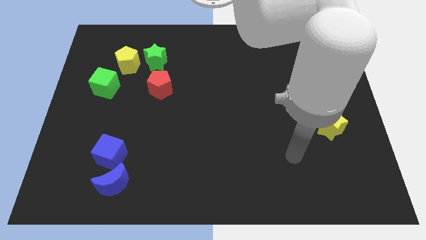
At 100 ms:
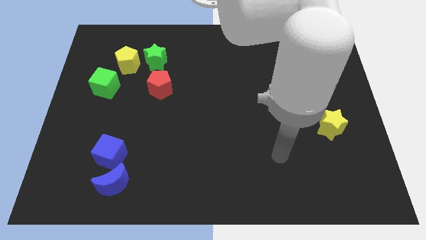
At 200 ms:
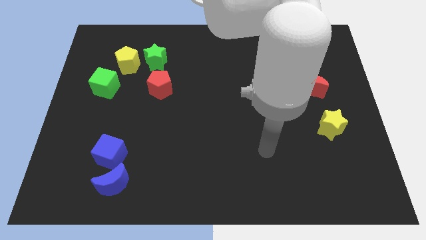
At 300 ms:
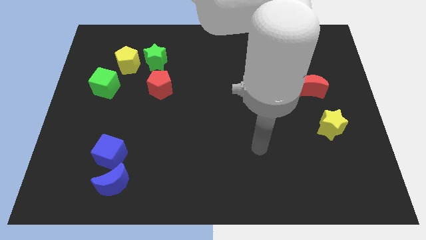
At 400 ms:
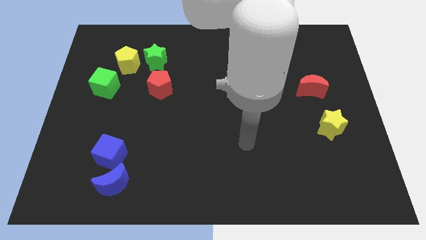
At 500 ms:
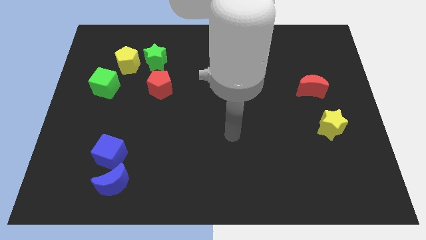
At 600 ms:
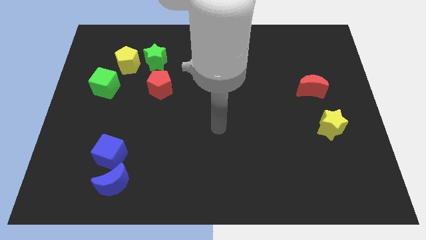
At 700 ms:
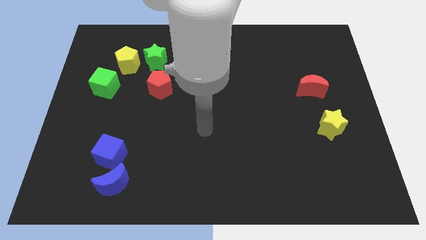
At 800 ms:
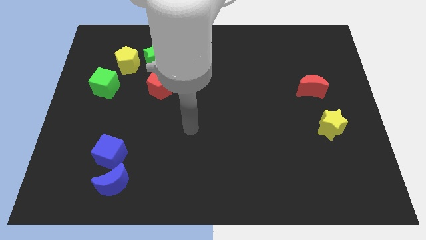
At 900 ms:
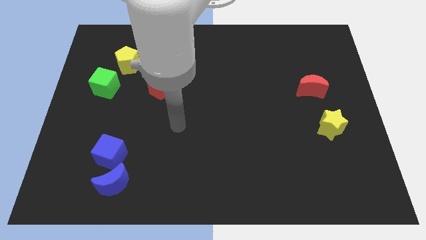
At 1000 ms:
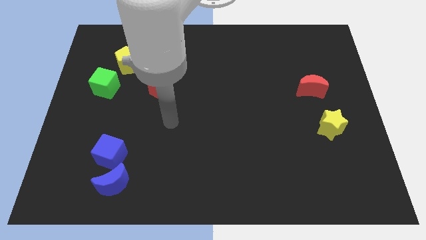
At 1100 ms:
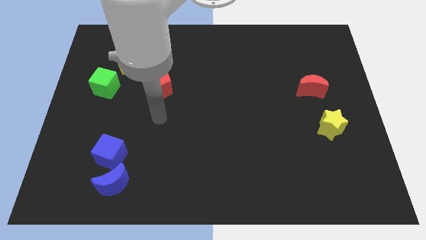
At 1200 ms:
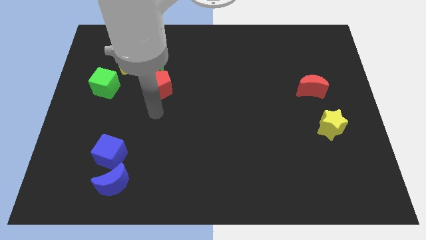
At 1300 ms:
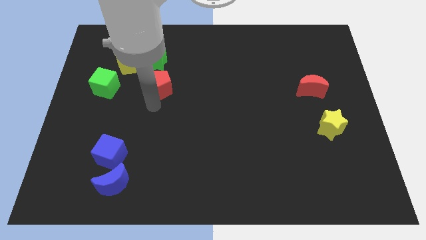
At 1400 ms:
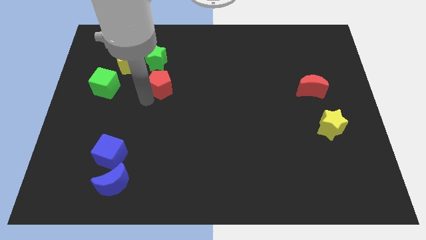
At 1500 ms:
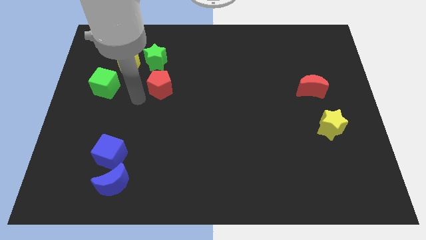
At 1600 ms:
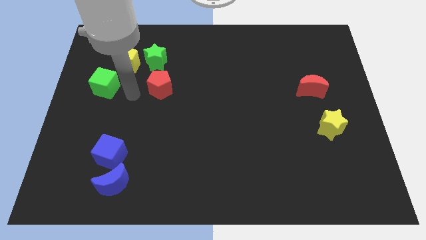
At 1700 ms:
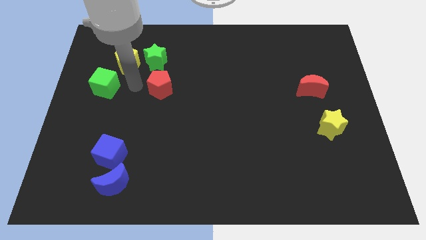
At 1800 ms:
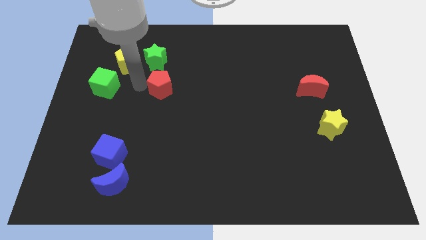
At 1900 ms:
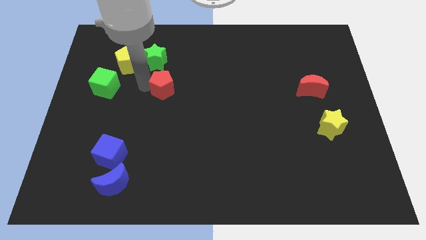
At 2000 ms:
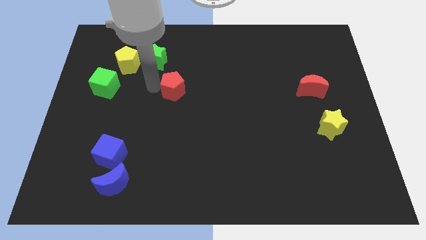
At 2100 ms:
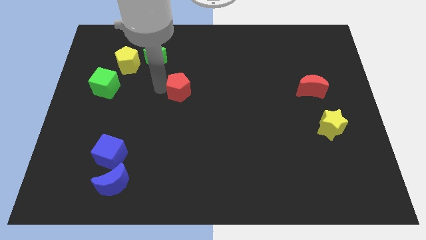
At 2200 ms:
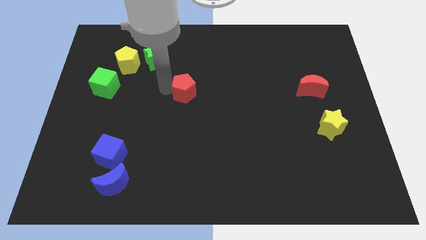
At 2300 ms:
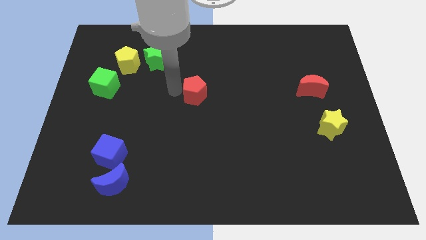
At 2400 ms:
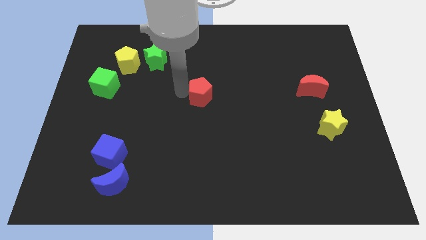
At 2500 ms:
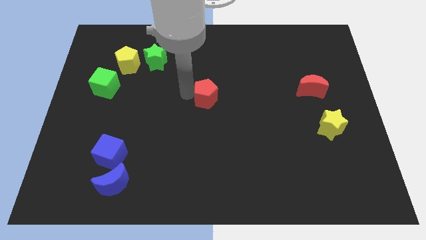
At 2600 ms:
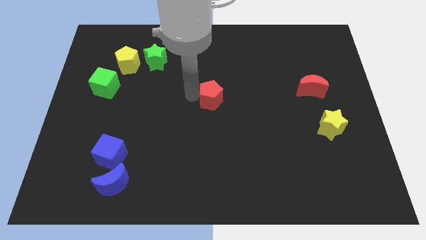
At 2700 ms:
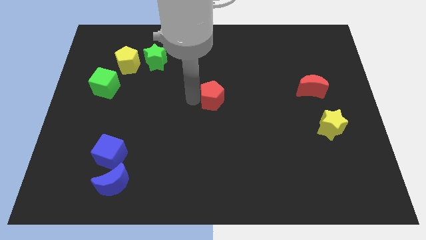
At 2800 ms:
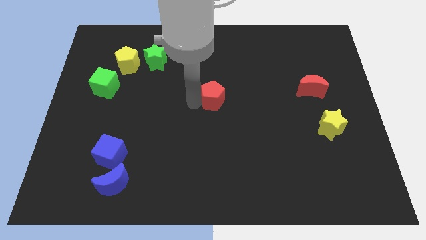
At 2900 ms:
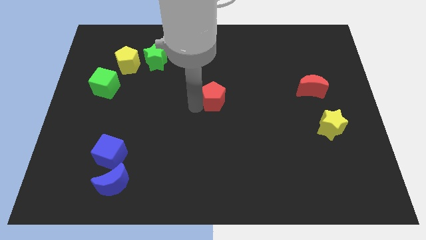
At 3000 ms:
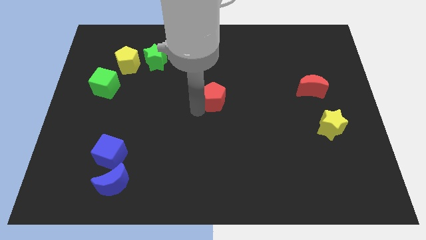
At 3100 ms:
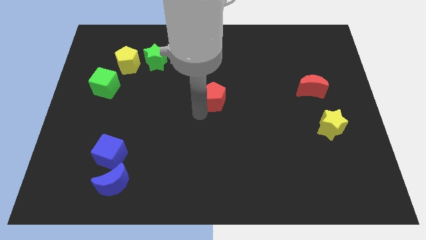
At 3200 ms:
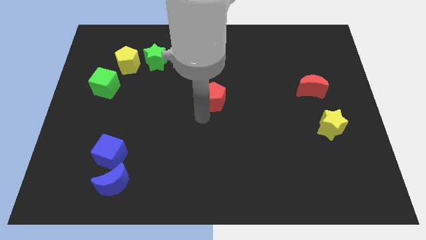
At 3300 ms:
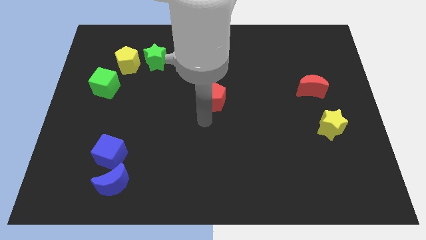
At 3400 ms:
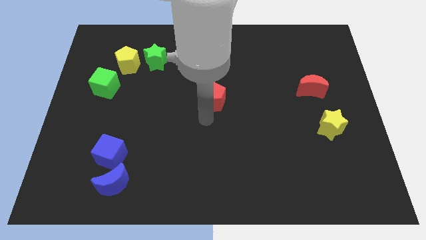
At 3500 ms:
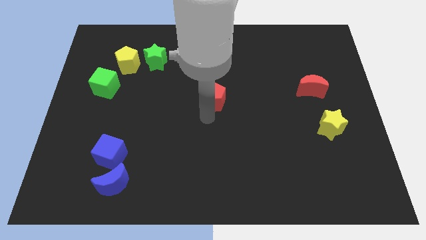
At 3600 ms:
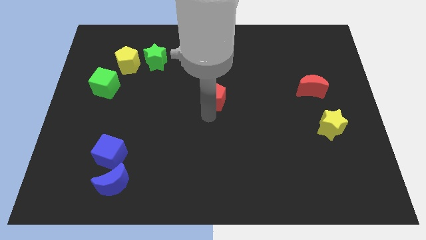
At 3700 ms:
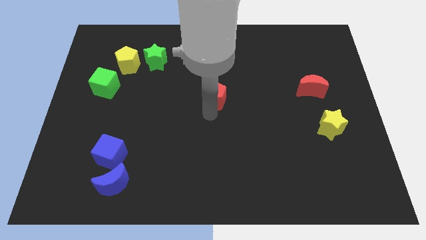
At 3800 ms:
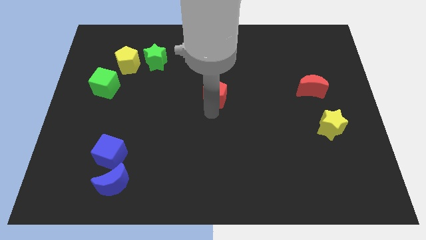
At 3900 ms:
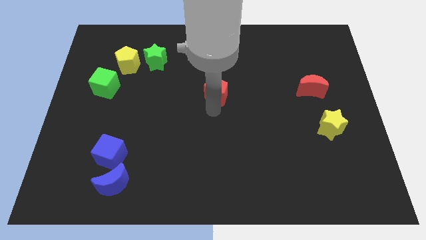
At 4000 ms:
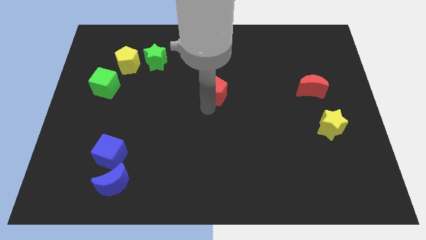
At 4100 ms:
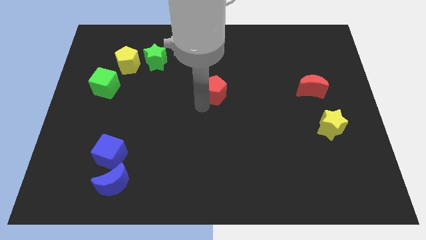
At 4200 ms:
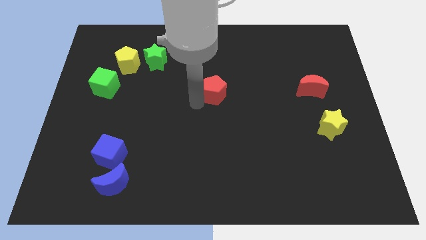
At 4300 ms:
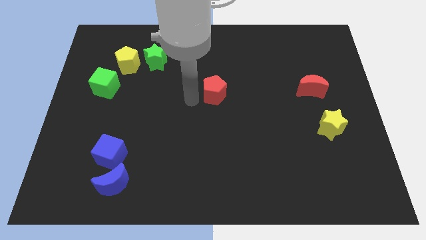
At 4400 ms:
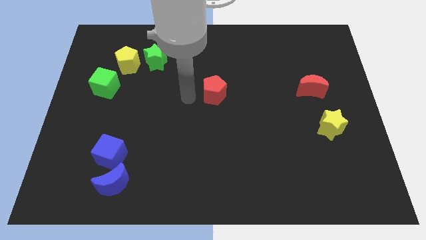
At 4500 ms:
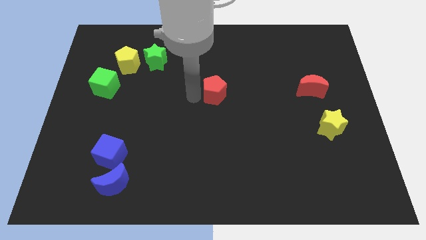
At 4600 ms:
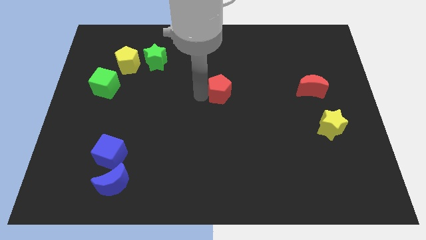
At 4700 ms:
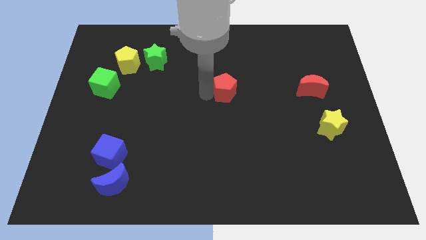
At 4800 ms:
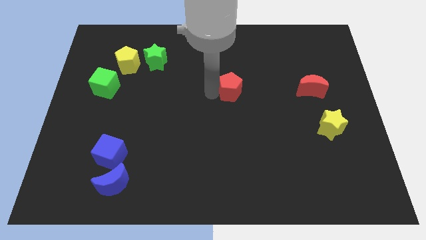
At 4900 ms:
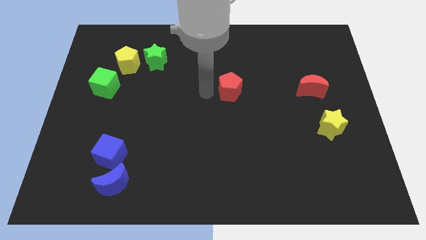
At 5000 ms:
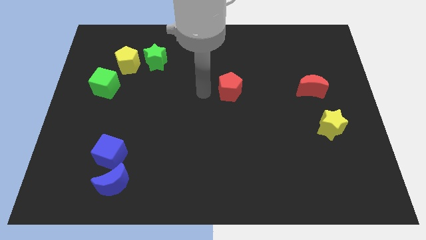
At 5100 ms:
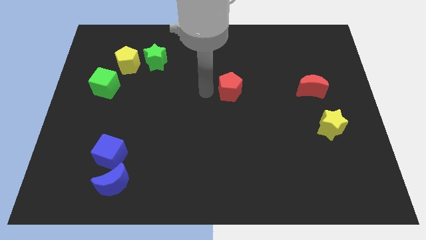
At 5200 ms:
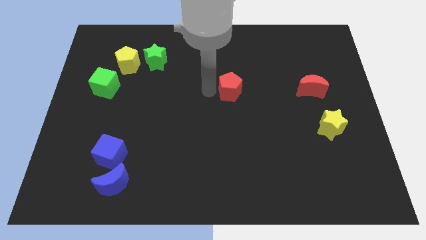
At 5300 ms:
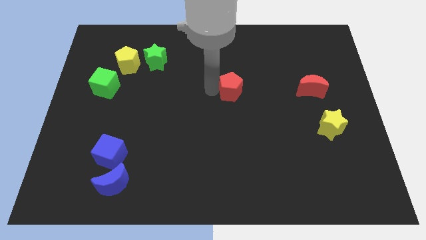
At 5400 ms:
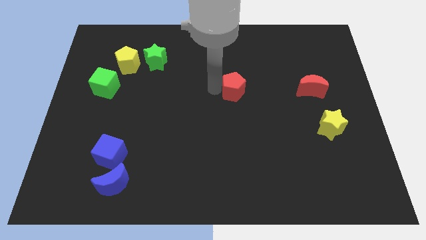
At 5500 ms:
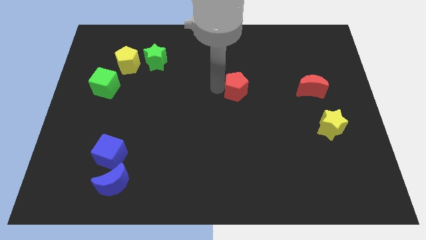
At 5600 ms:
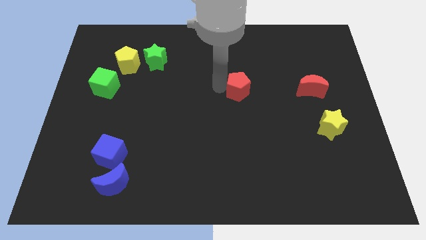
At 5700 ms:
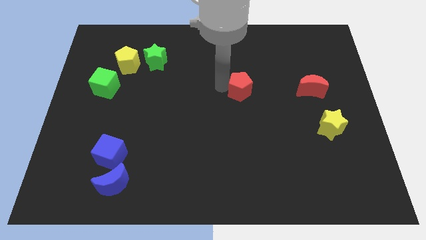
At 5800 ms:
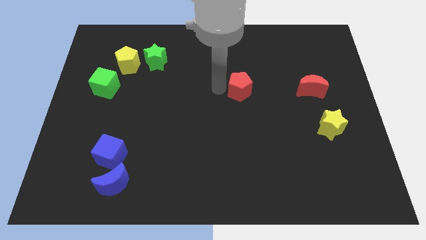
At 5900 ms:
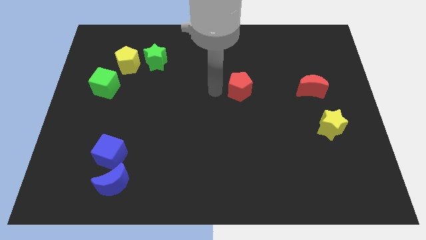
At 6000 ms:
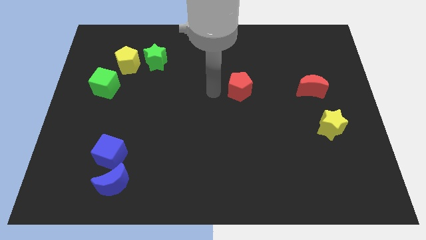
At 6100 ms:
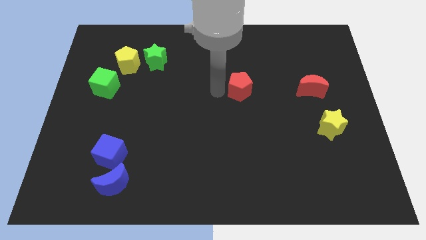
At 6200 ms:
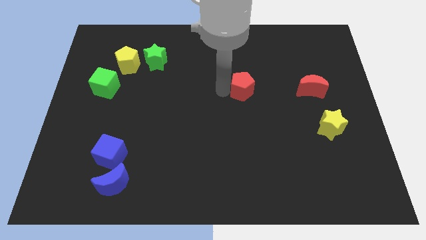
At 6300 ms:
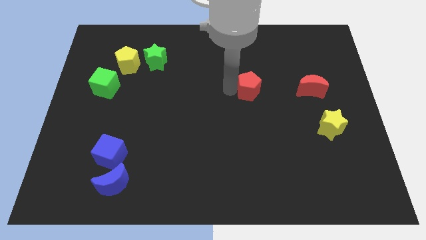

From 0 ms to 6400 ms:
put the red pentagon to the left of the red moon
